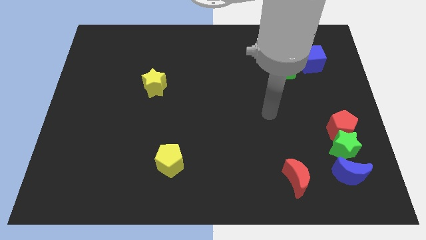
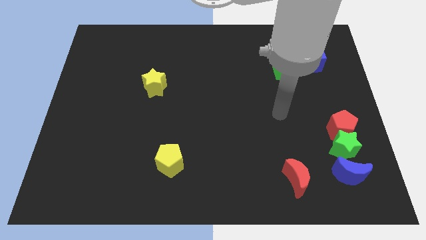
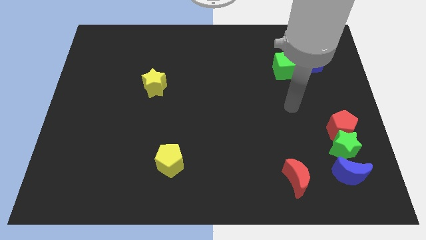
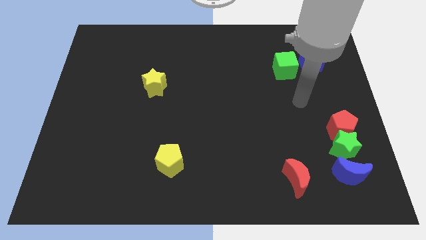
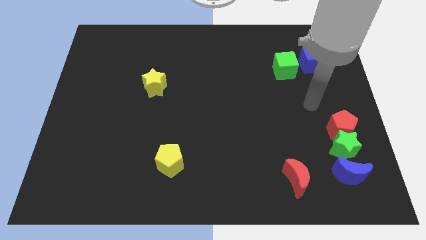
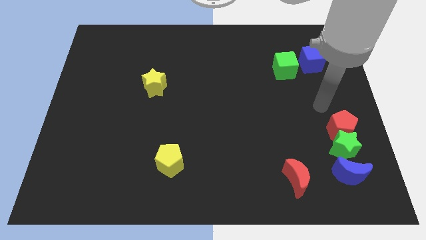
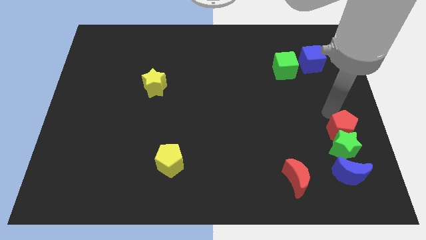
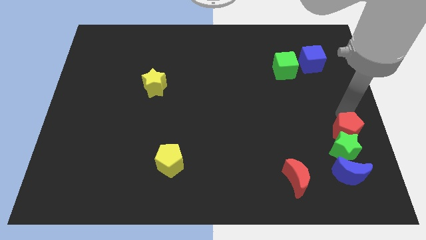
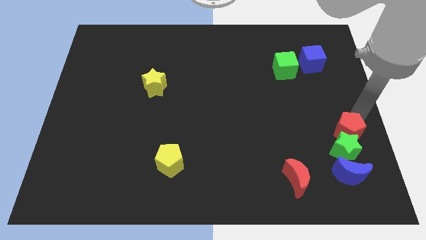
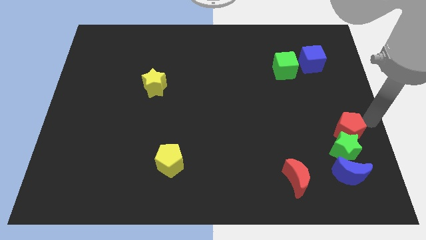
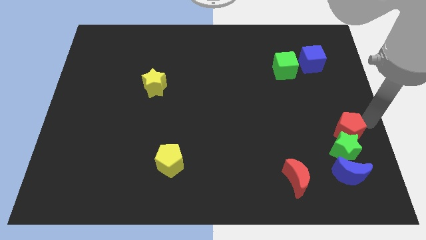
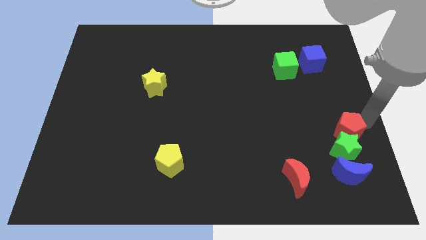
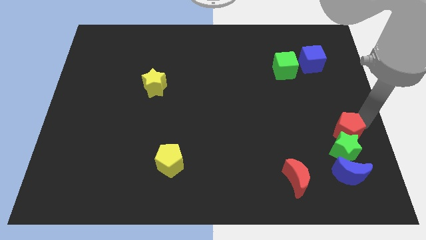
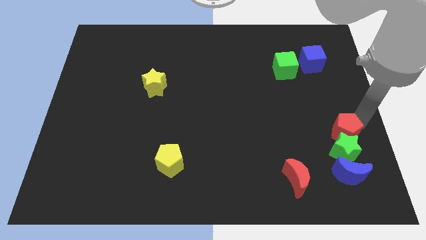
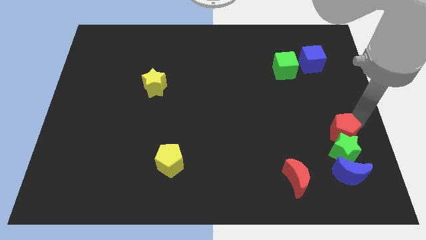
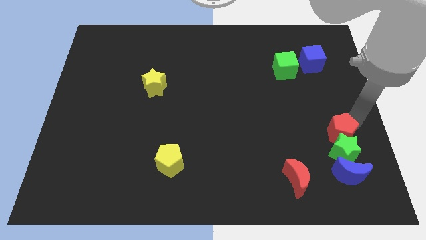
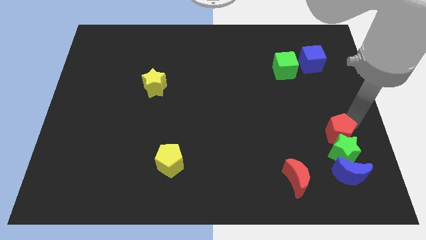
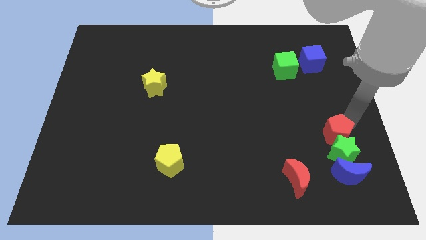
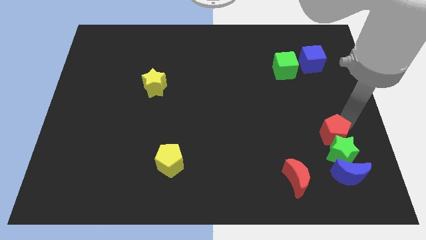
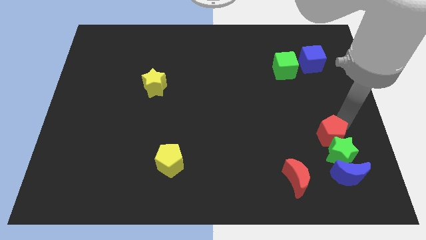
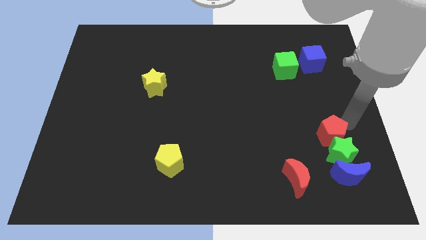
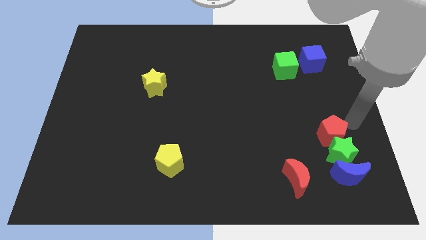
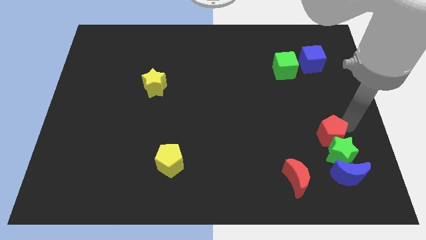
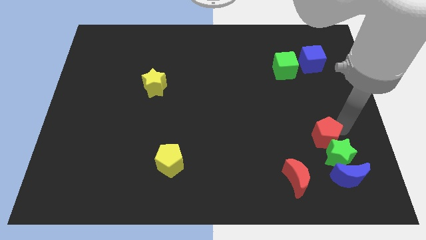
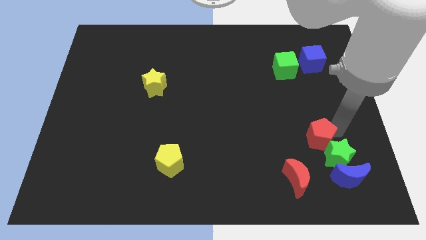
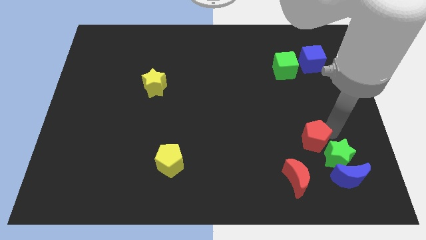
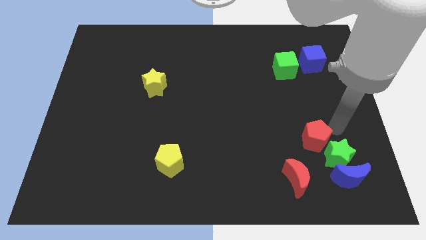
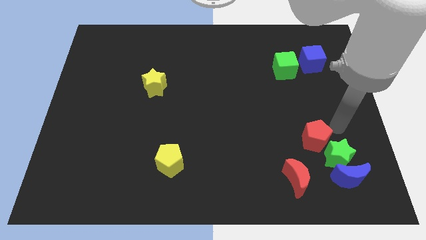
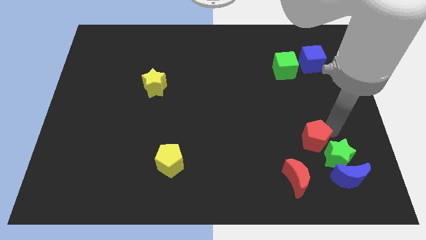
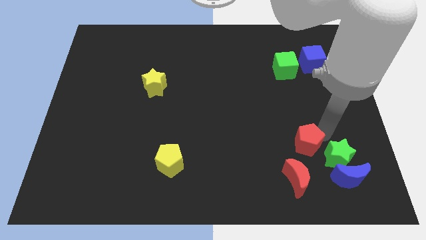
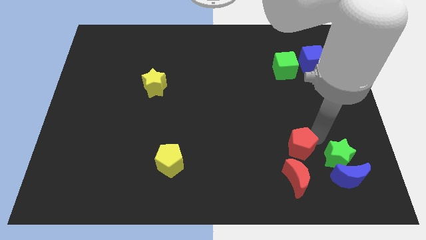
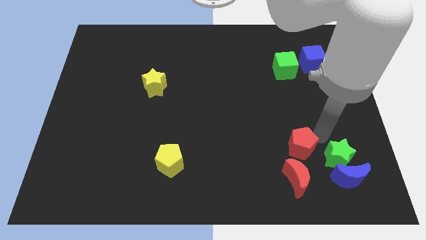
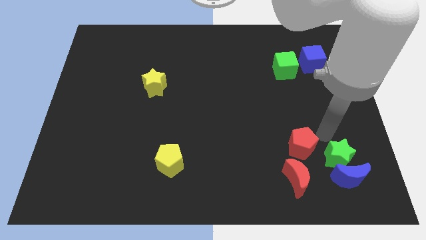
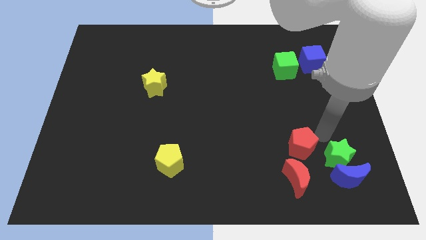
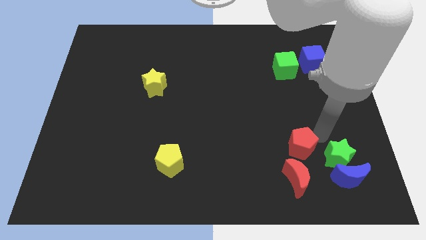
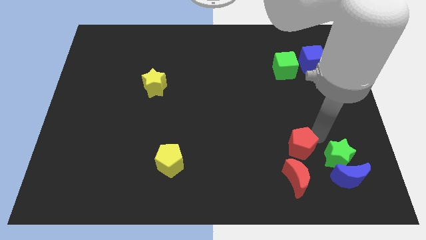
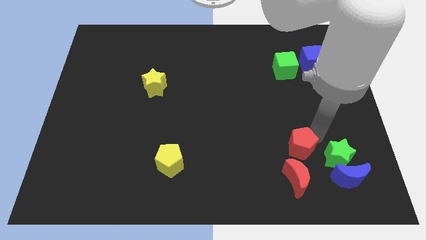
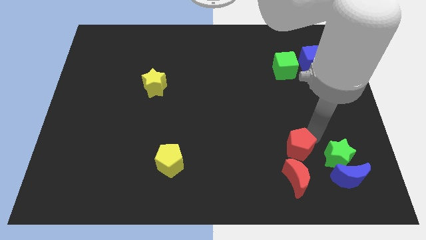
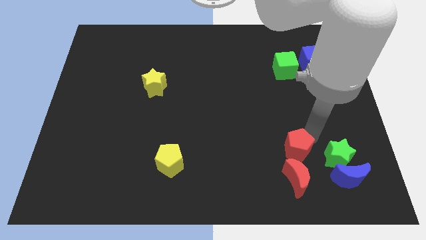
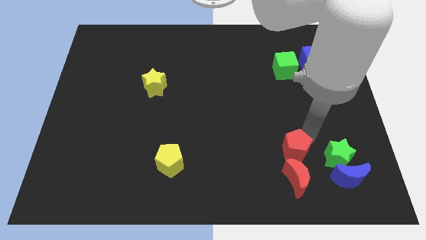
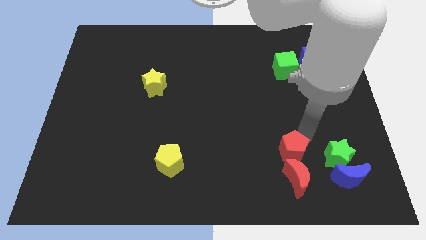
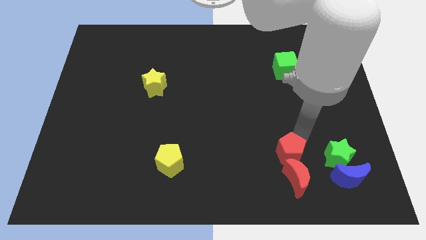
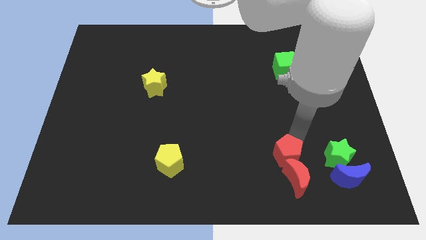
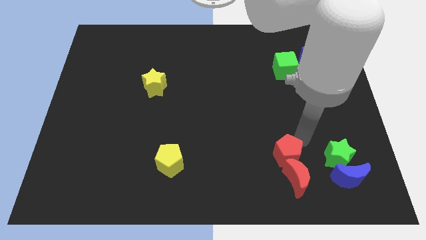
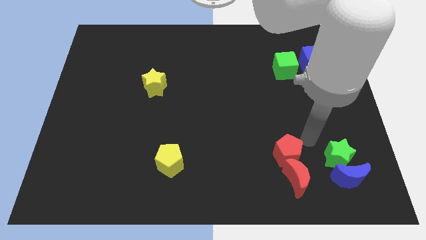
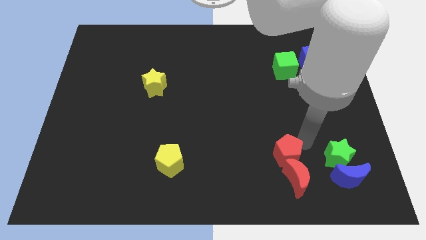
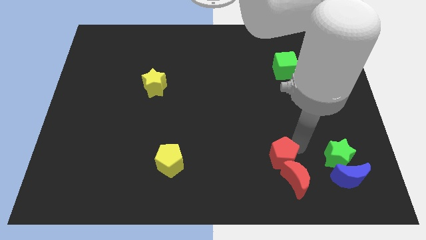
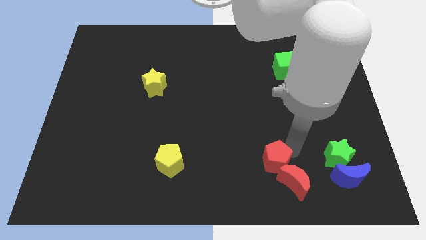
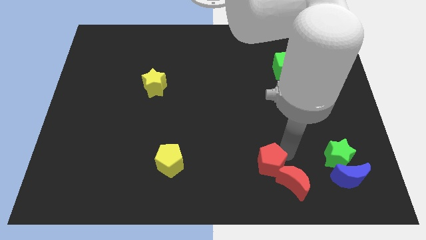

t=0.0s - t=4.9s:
move the red pentagon to the left side of the red moon

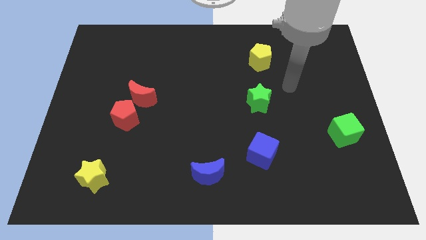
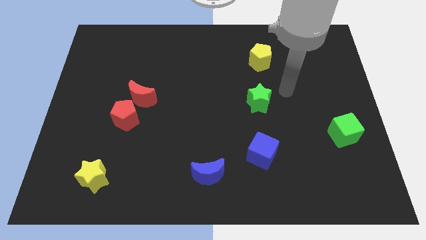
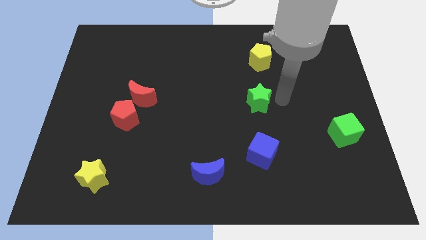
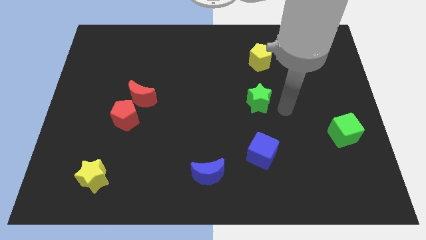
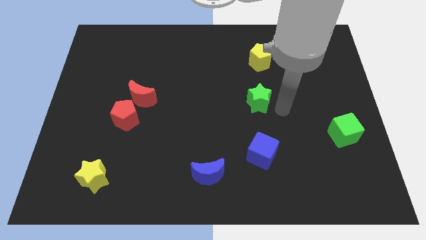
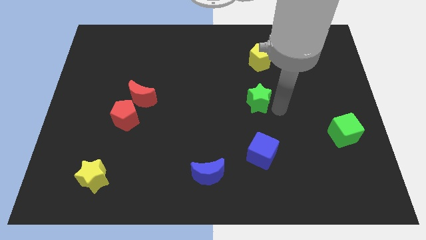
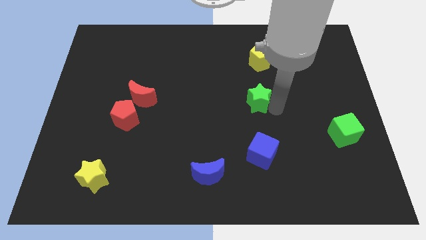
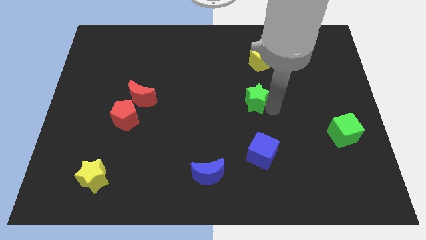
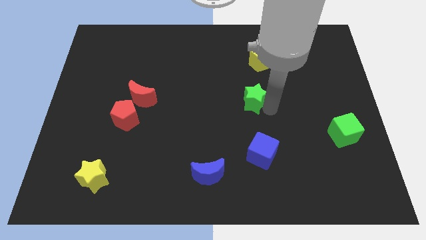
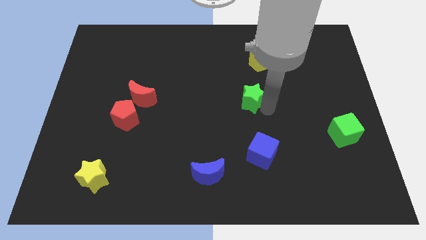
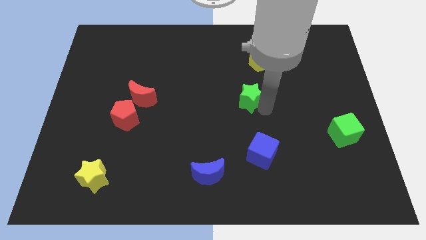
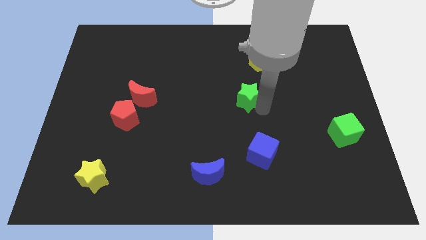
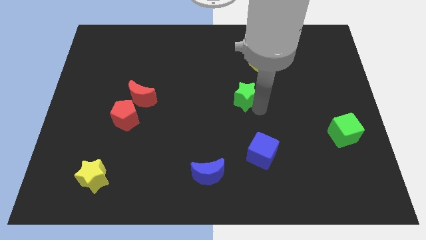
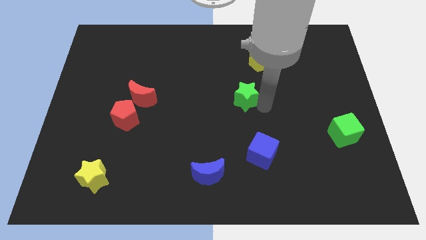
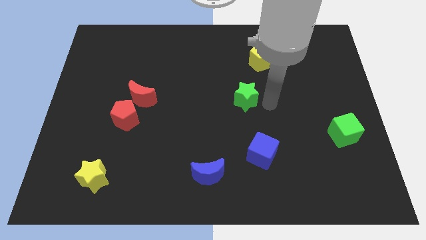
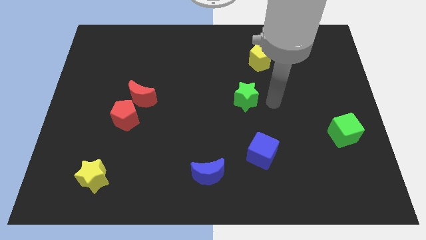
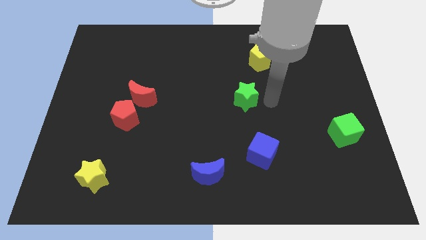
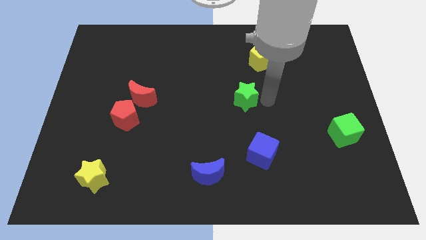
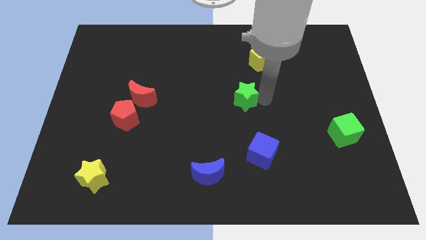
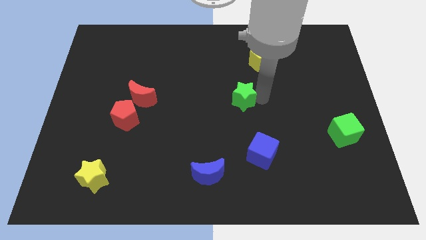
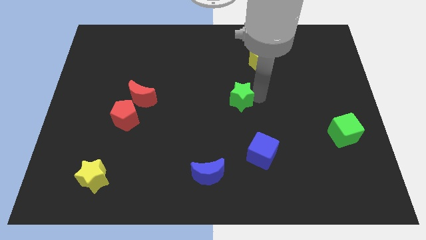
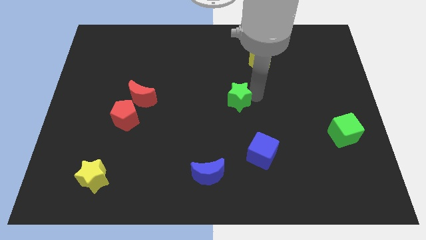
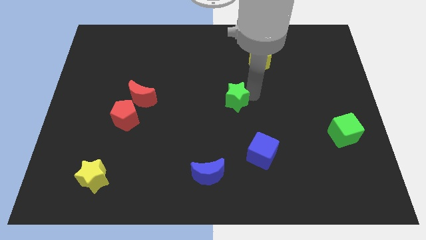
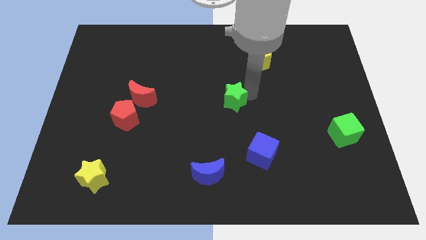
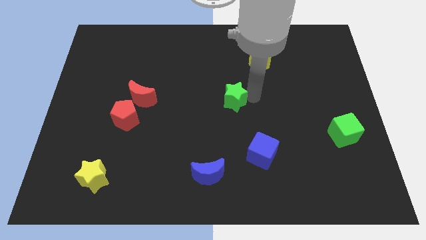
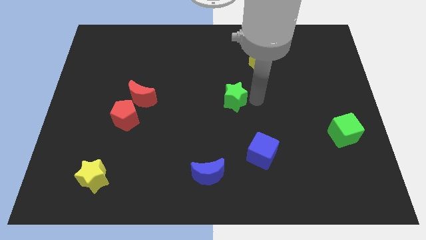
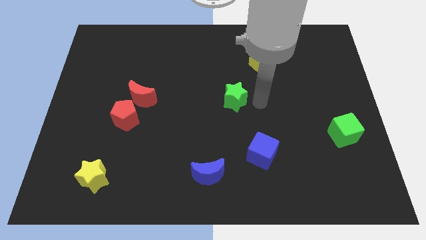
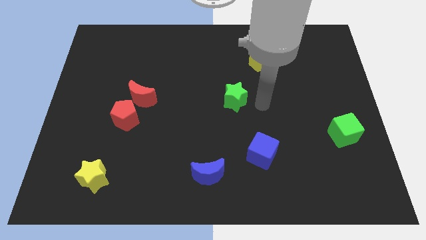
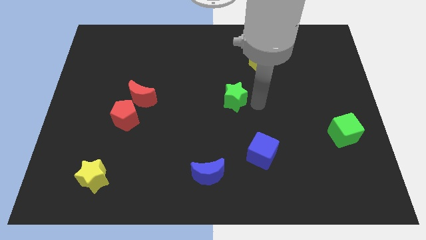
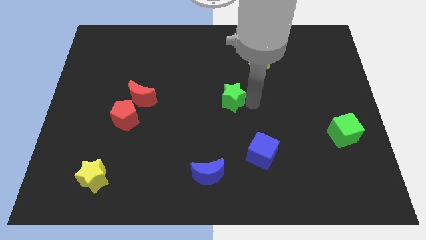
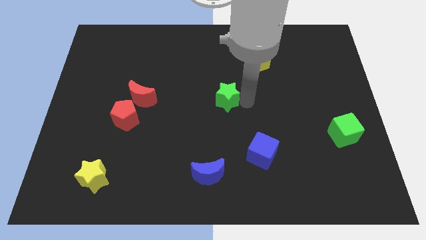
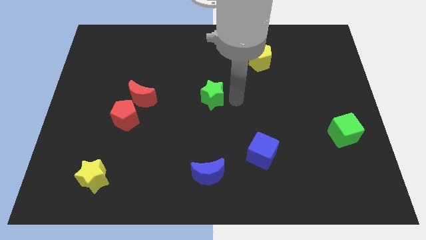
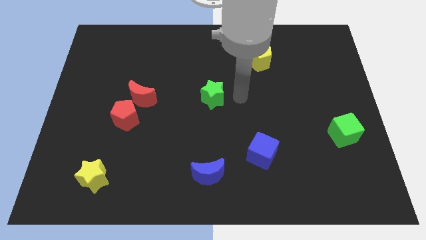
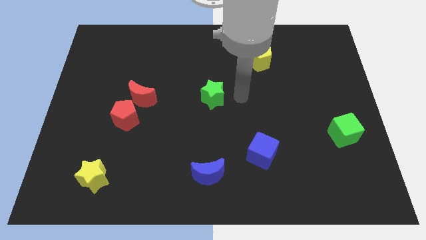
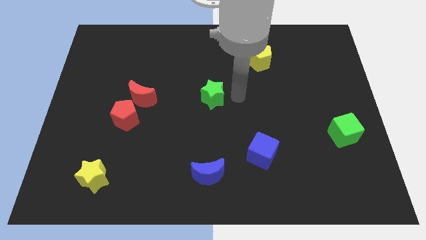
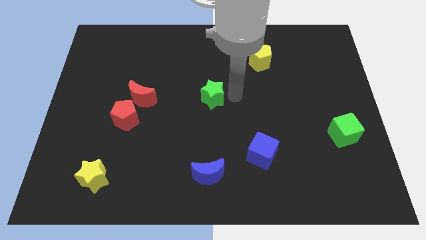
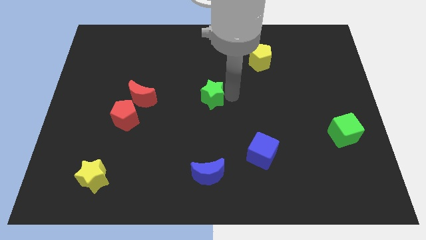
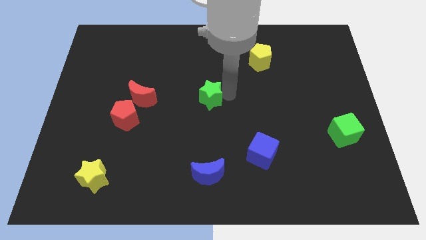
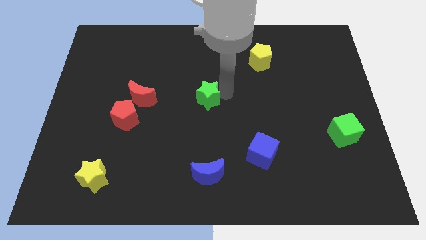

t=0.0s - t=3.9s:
slide the green star just right of the red moon
